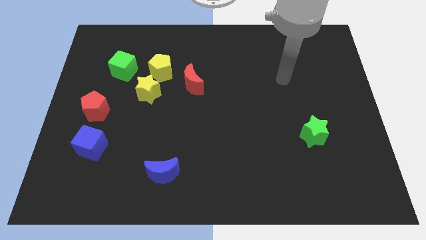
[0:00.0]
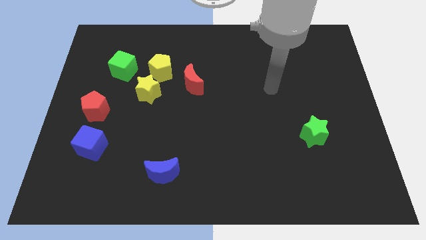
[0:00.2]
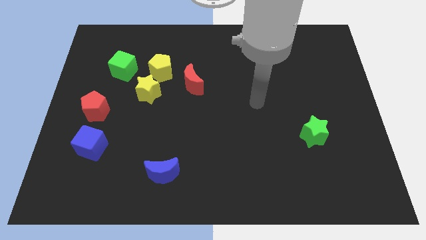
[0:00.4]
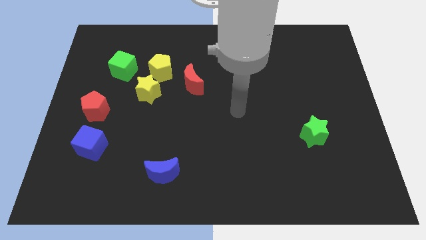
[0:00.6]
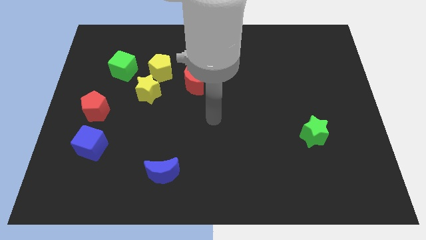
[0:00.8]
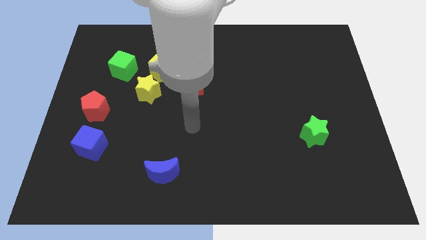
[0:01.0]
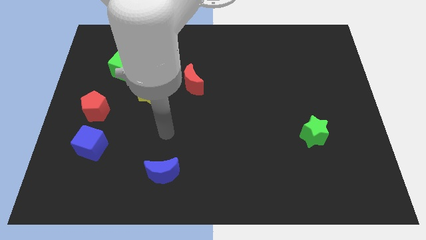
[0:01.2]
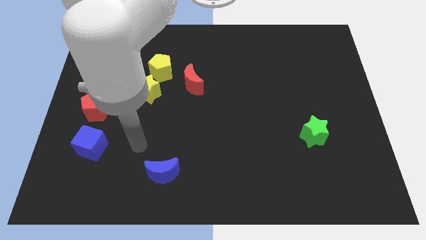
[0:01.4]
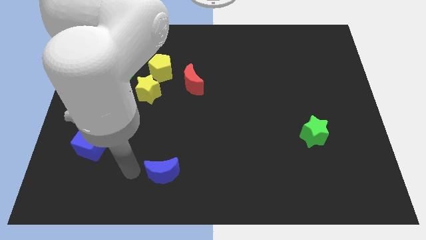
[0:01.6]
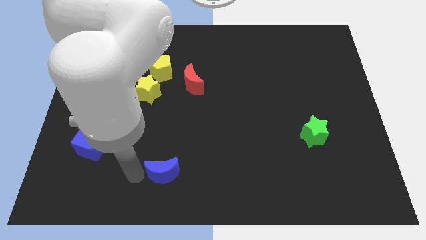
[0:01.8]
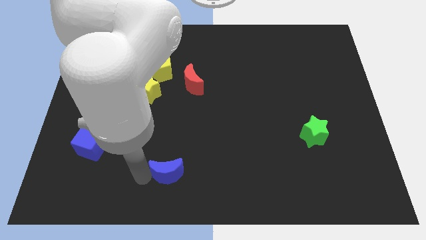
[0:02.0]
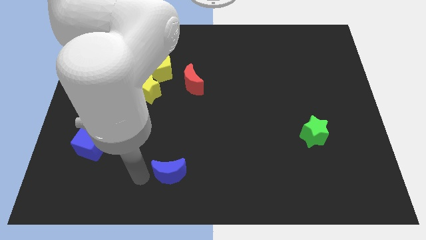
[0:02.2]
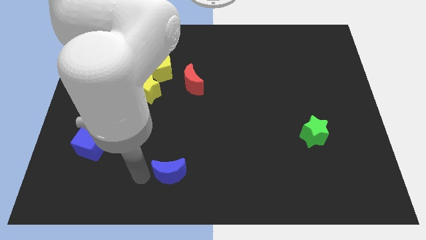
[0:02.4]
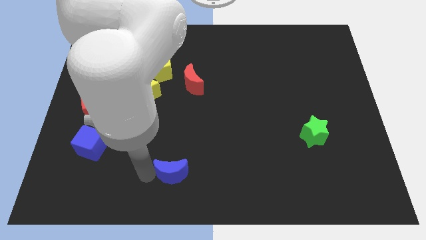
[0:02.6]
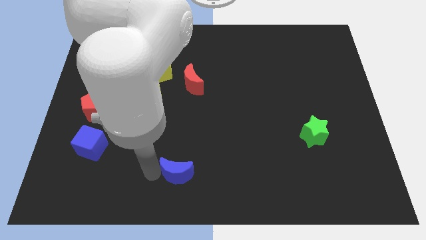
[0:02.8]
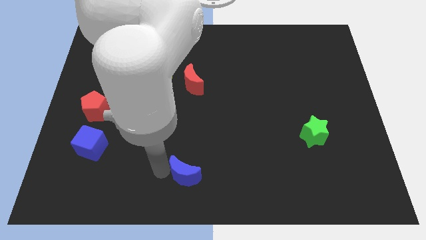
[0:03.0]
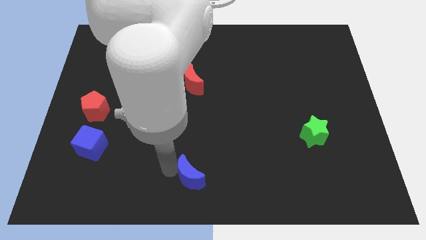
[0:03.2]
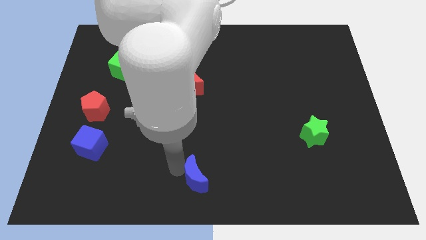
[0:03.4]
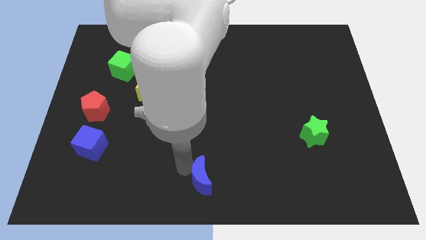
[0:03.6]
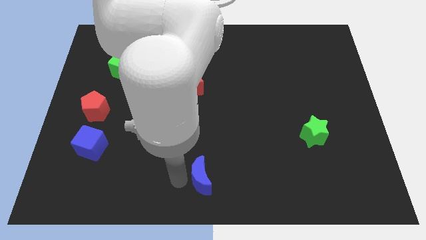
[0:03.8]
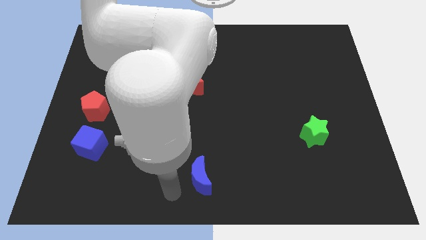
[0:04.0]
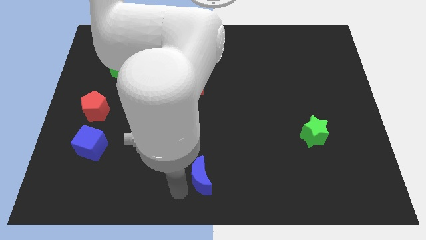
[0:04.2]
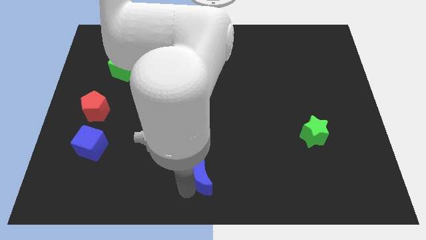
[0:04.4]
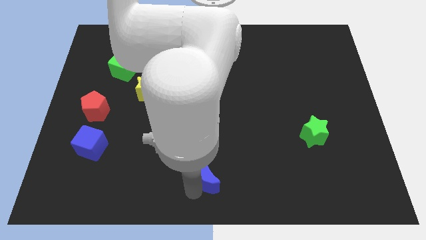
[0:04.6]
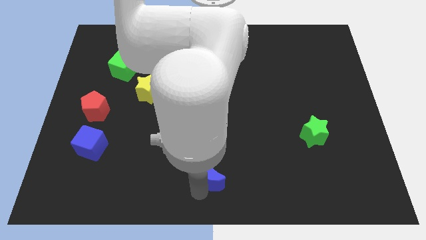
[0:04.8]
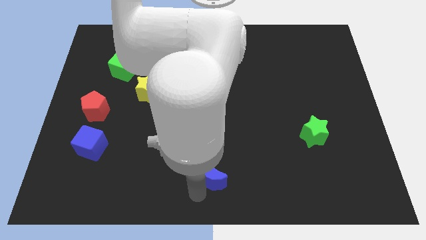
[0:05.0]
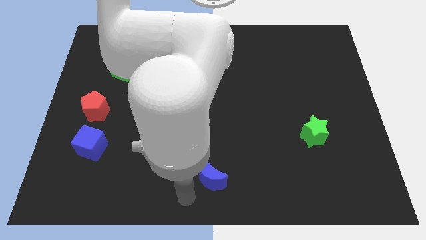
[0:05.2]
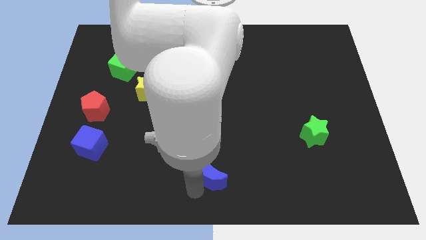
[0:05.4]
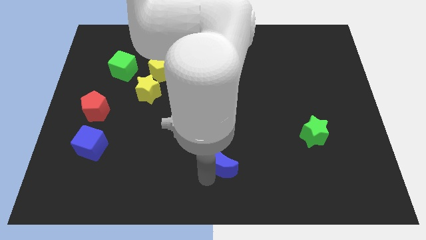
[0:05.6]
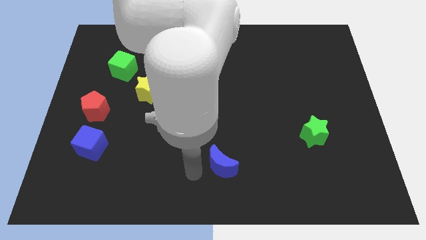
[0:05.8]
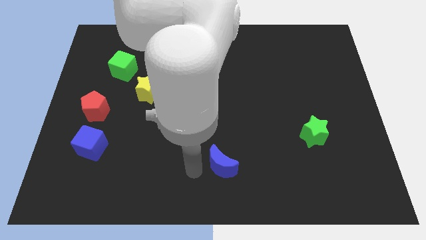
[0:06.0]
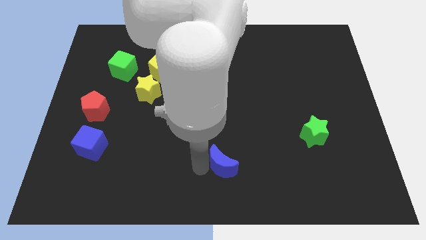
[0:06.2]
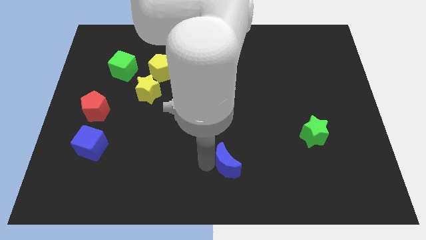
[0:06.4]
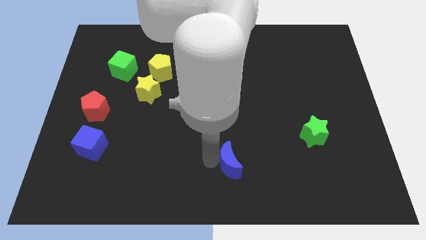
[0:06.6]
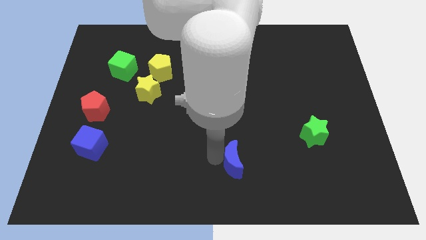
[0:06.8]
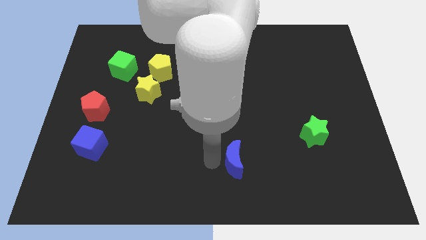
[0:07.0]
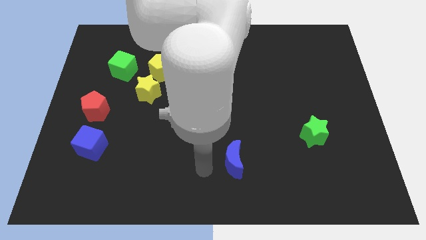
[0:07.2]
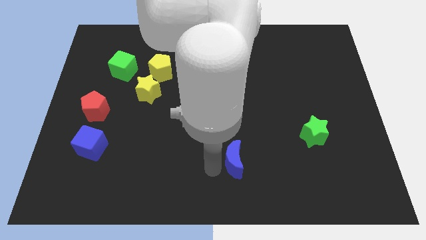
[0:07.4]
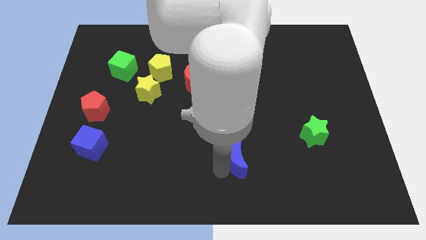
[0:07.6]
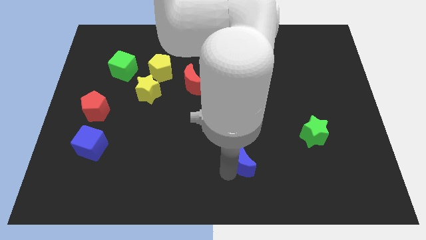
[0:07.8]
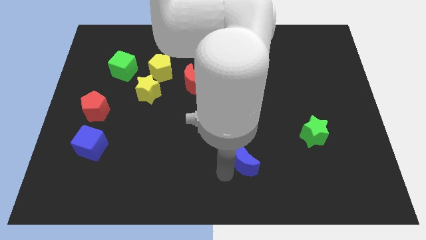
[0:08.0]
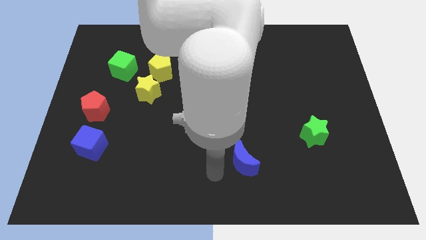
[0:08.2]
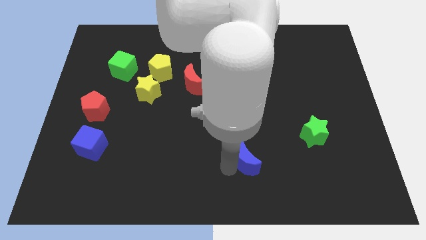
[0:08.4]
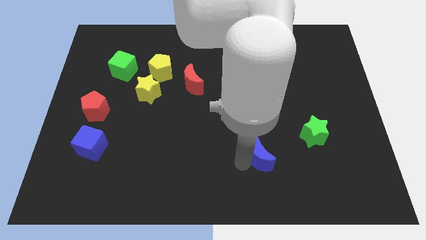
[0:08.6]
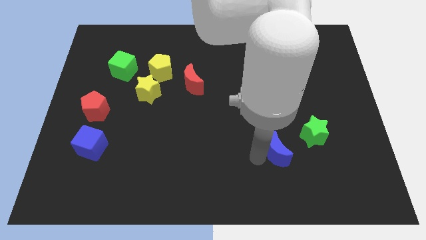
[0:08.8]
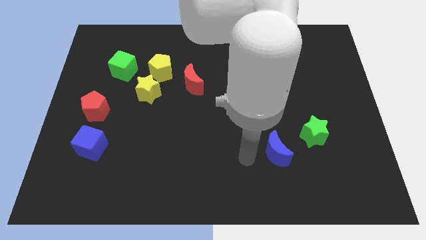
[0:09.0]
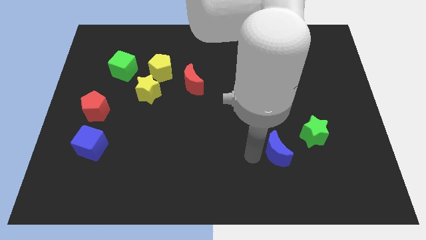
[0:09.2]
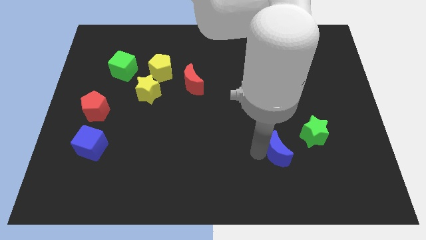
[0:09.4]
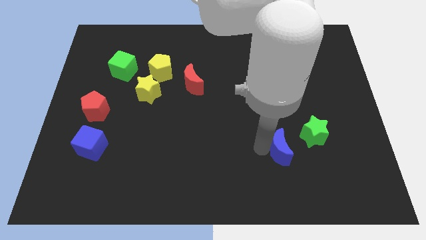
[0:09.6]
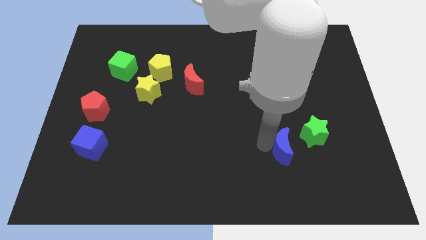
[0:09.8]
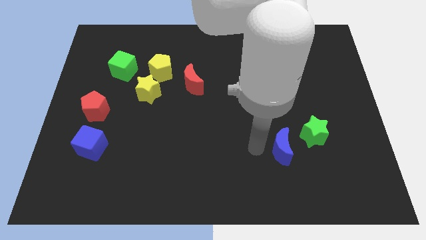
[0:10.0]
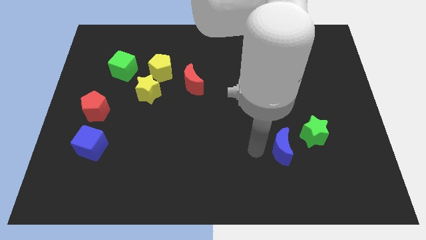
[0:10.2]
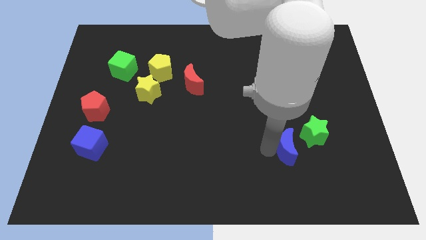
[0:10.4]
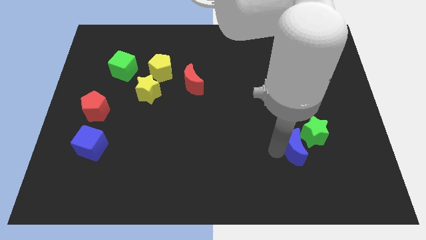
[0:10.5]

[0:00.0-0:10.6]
push the blue moon towards the green star

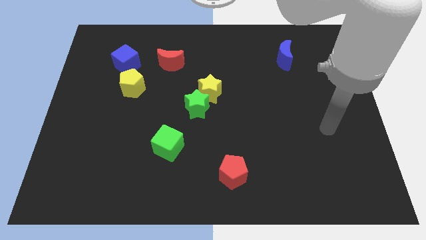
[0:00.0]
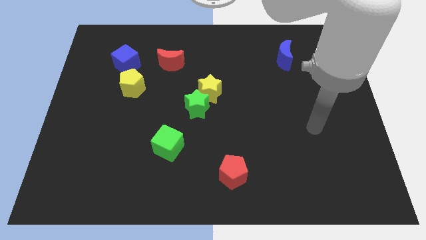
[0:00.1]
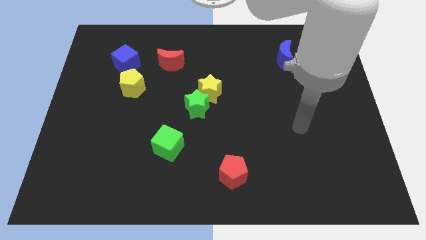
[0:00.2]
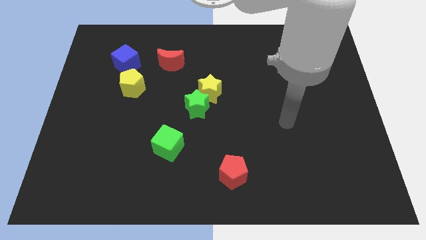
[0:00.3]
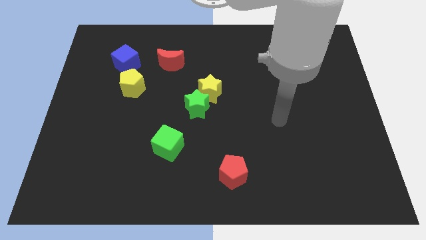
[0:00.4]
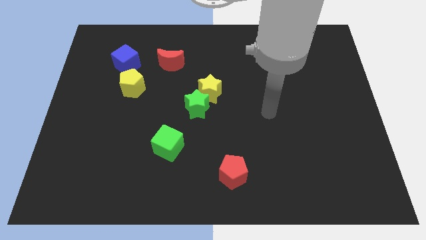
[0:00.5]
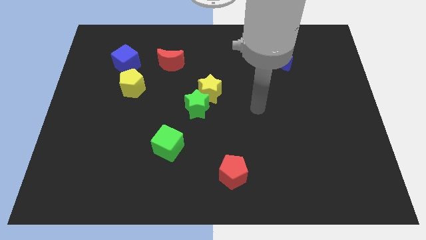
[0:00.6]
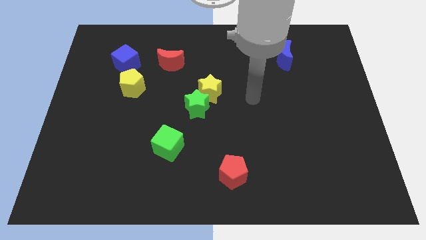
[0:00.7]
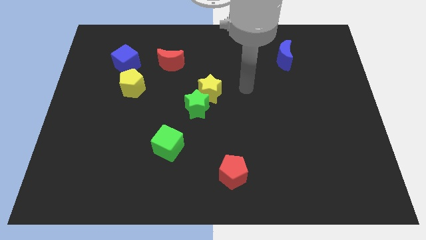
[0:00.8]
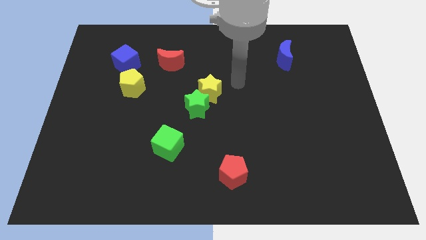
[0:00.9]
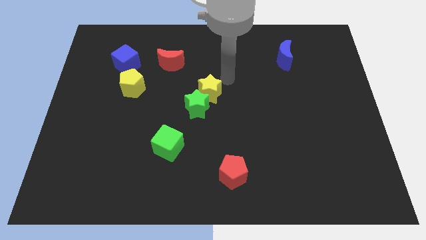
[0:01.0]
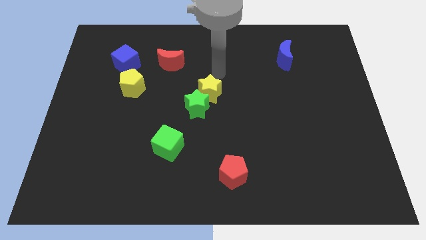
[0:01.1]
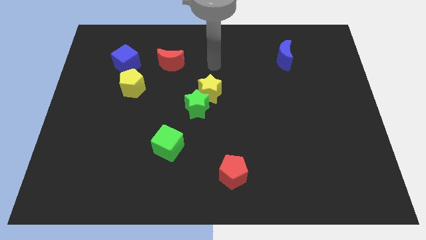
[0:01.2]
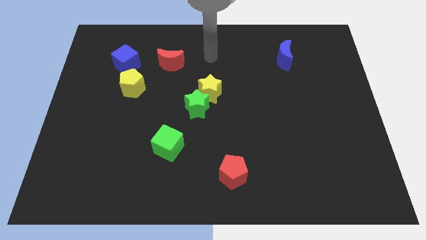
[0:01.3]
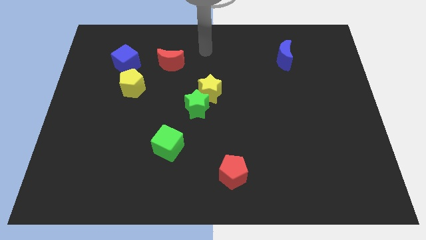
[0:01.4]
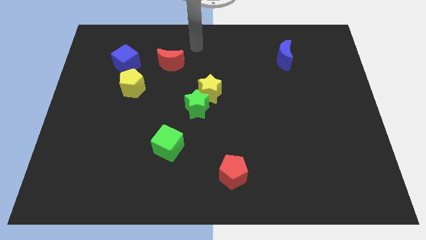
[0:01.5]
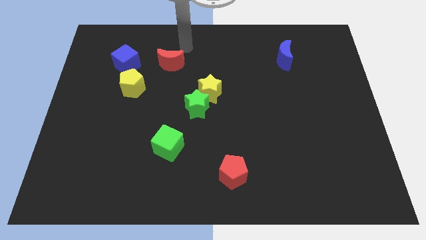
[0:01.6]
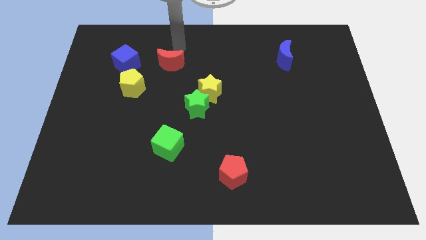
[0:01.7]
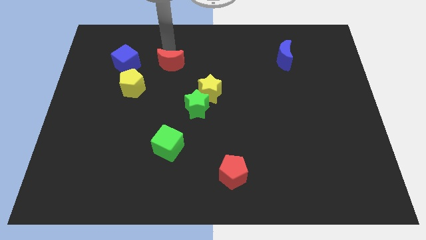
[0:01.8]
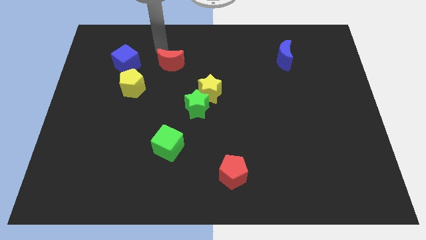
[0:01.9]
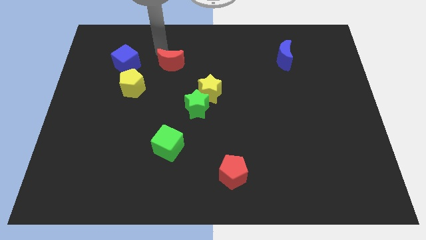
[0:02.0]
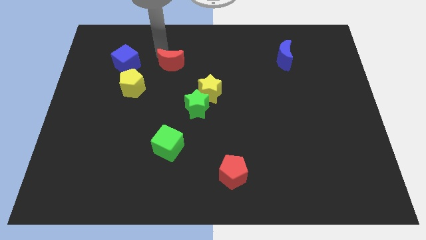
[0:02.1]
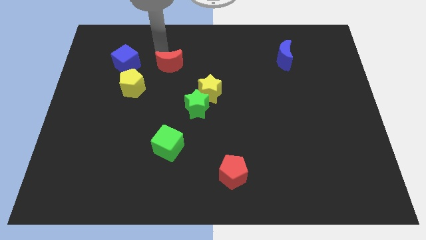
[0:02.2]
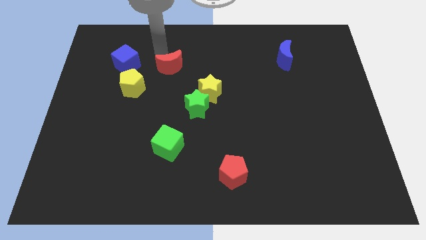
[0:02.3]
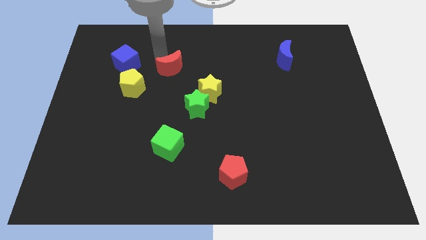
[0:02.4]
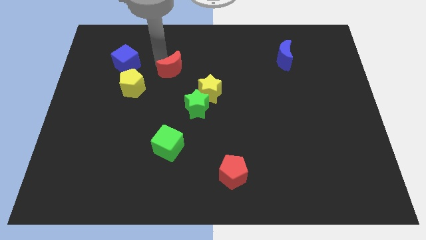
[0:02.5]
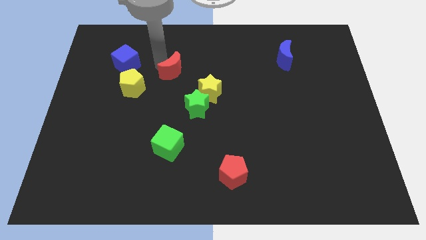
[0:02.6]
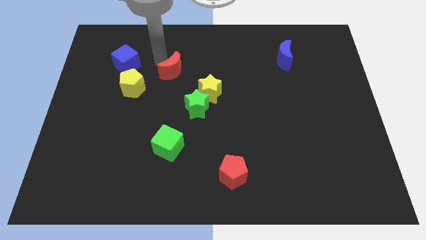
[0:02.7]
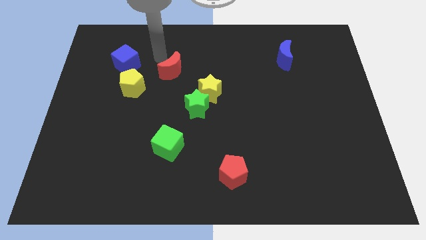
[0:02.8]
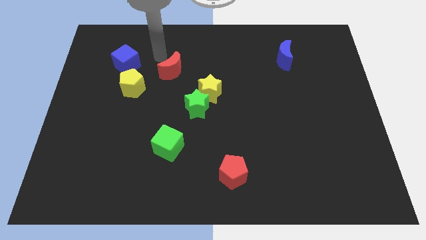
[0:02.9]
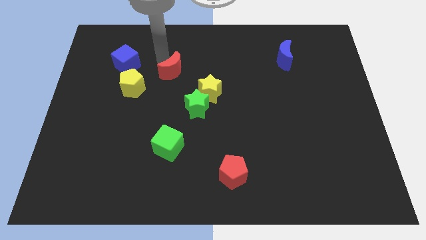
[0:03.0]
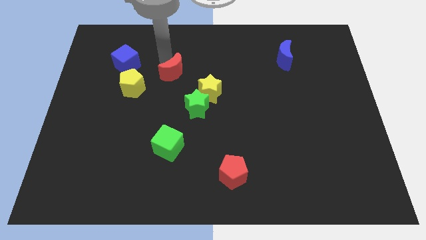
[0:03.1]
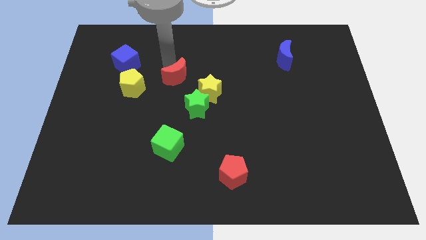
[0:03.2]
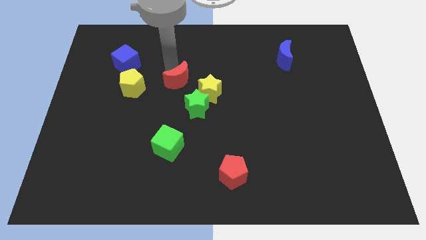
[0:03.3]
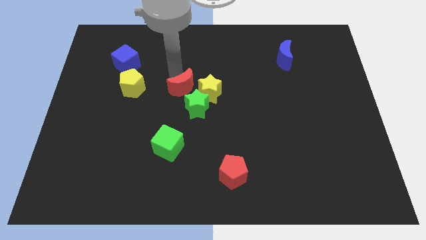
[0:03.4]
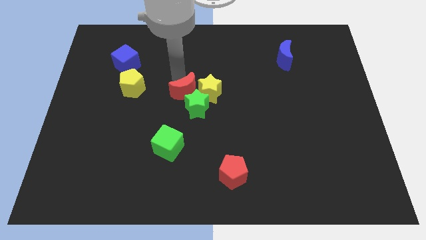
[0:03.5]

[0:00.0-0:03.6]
slide the red moon next to the green star
